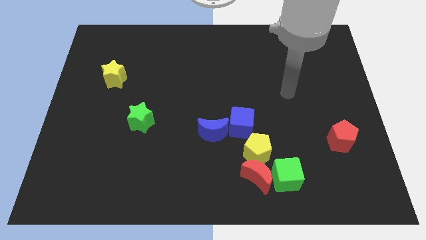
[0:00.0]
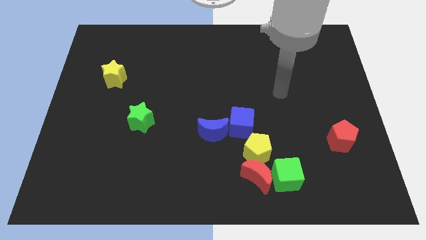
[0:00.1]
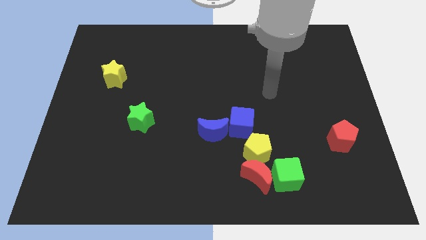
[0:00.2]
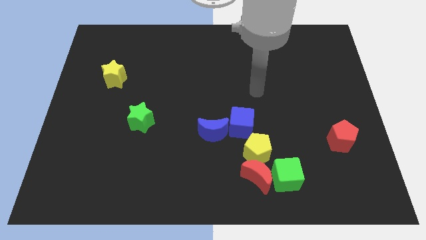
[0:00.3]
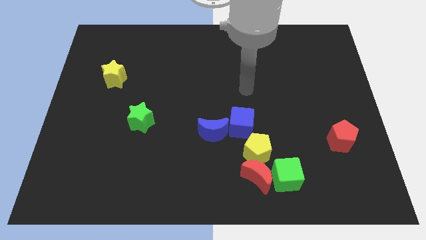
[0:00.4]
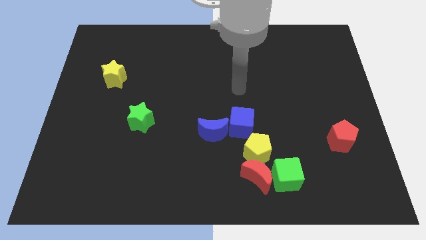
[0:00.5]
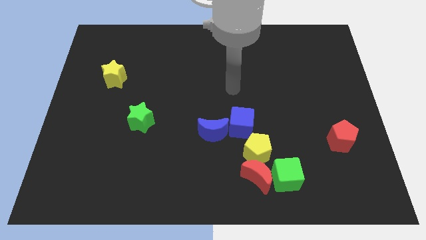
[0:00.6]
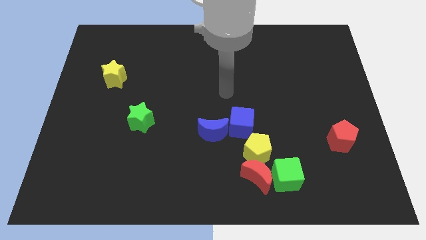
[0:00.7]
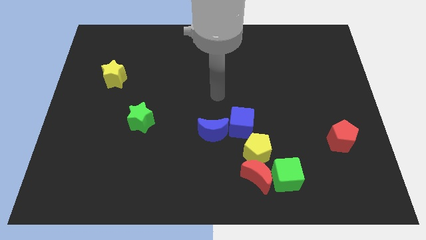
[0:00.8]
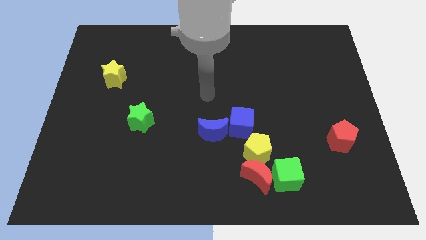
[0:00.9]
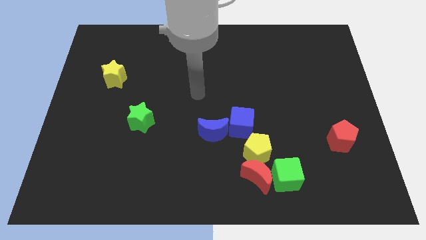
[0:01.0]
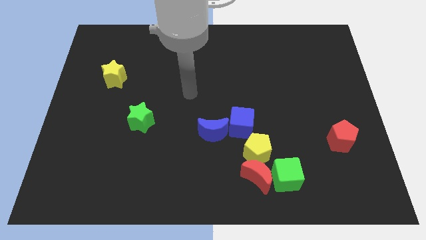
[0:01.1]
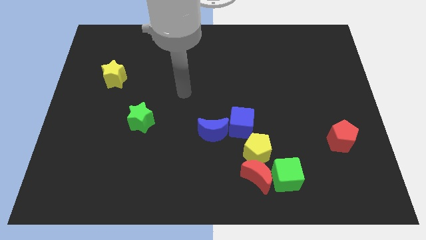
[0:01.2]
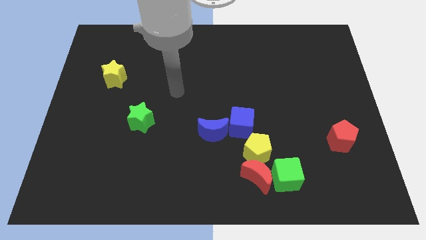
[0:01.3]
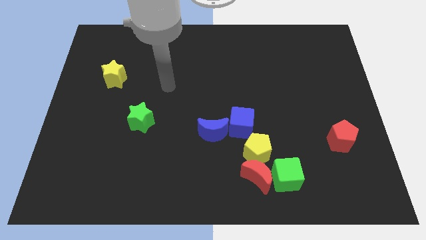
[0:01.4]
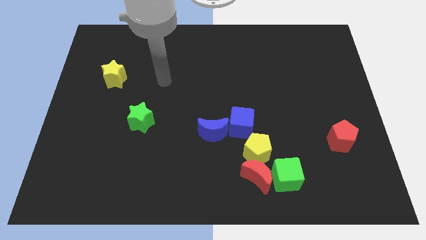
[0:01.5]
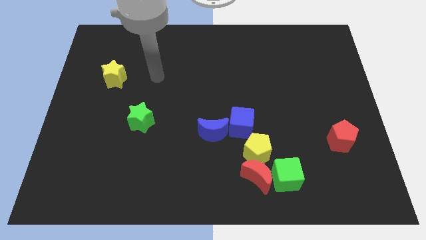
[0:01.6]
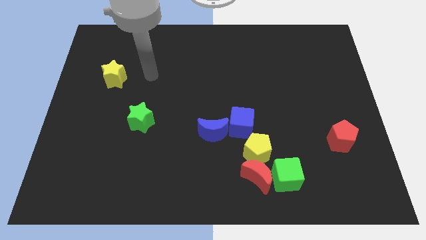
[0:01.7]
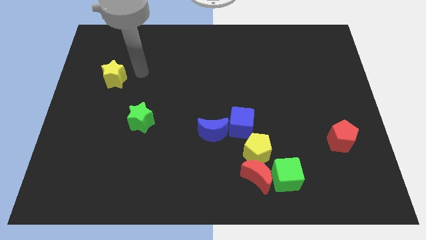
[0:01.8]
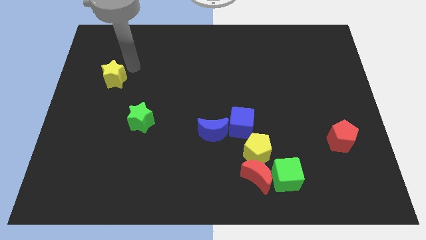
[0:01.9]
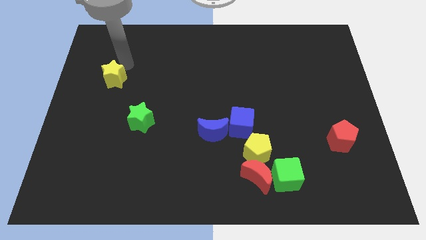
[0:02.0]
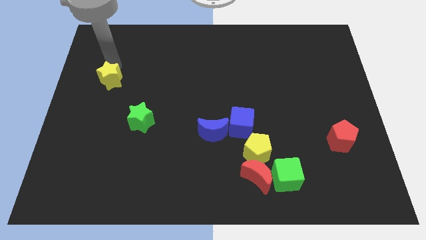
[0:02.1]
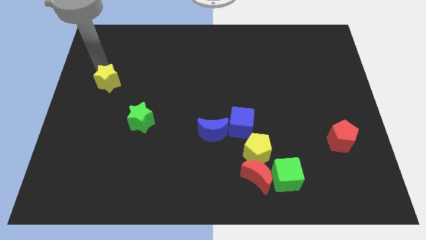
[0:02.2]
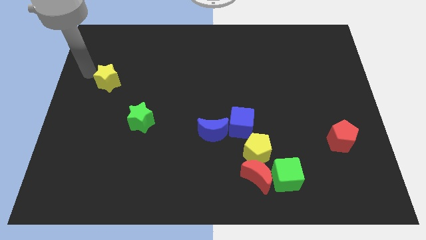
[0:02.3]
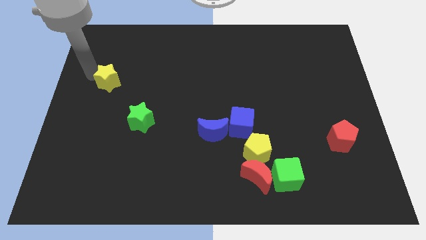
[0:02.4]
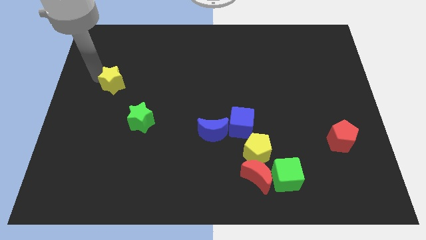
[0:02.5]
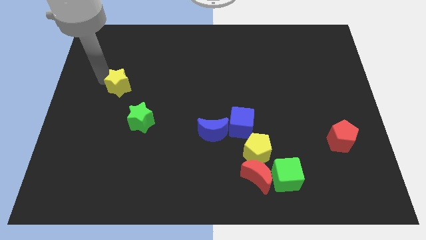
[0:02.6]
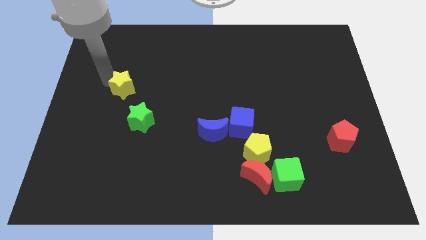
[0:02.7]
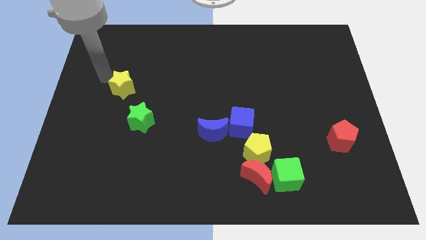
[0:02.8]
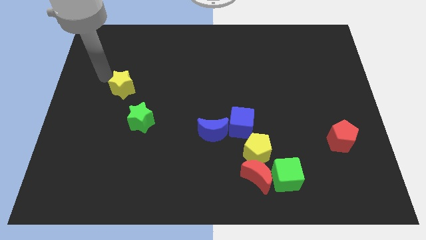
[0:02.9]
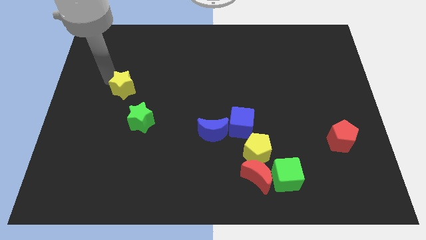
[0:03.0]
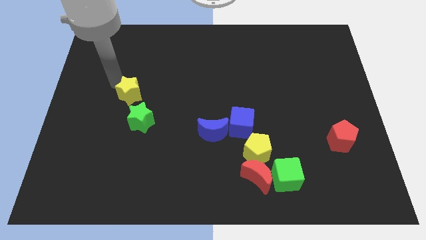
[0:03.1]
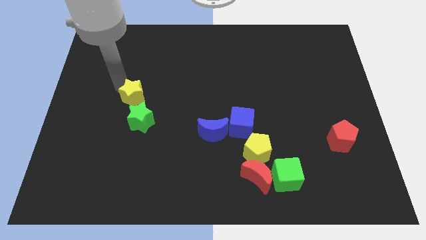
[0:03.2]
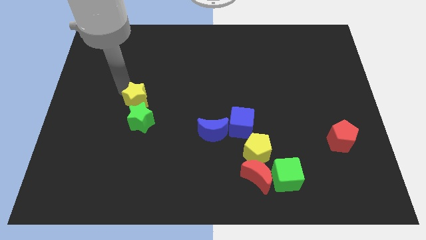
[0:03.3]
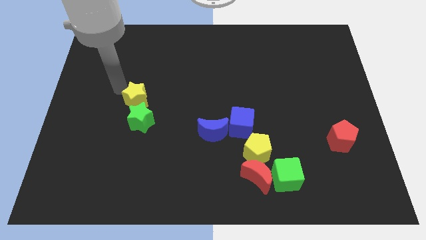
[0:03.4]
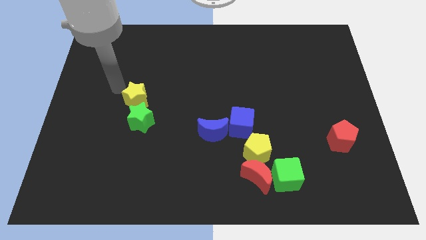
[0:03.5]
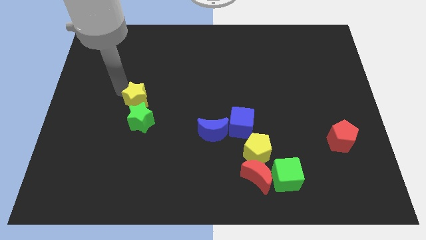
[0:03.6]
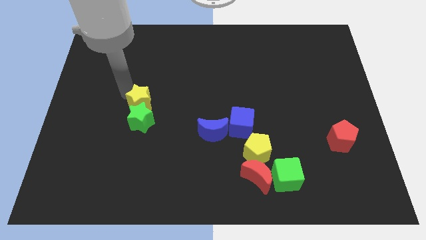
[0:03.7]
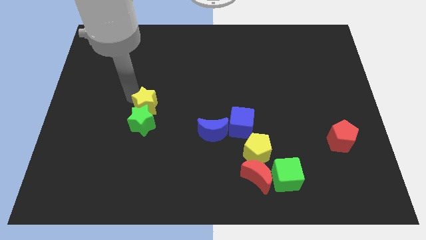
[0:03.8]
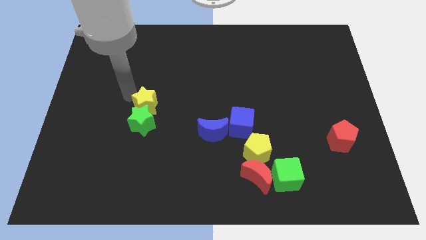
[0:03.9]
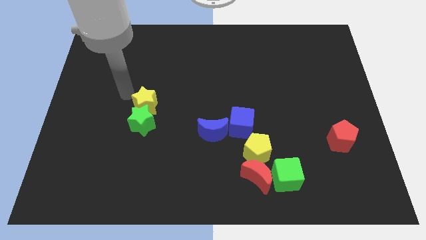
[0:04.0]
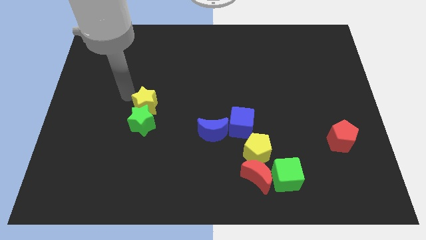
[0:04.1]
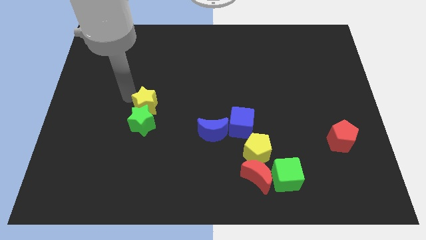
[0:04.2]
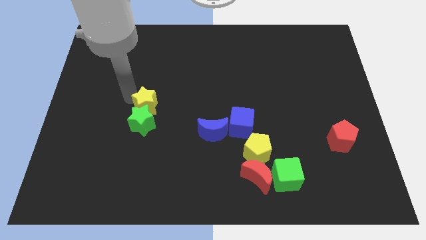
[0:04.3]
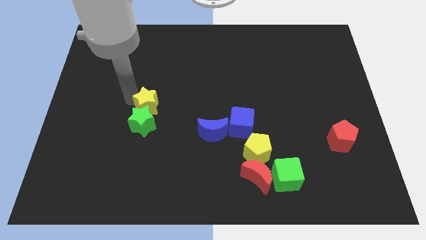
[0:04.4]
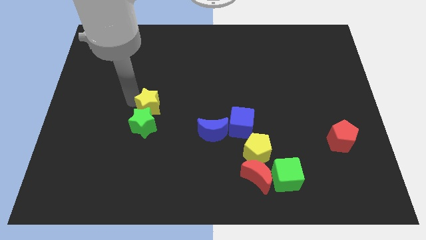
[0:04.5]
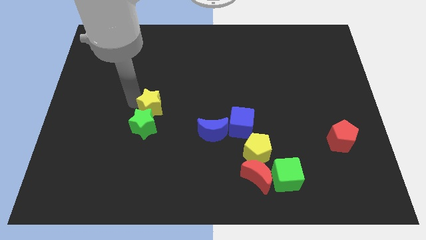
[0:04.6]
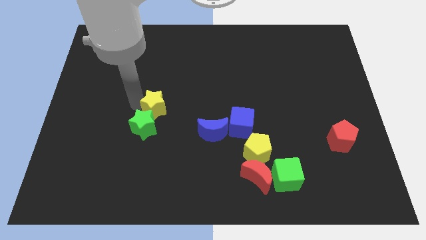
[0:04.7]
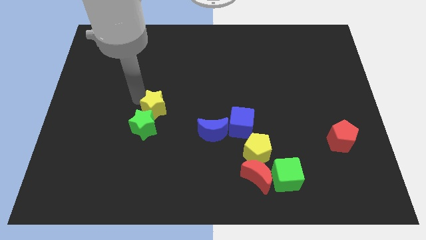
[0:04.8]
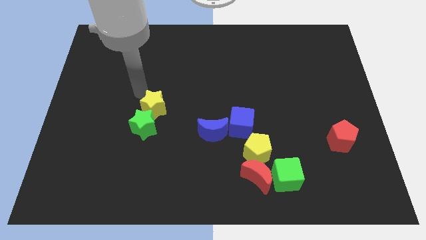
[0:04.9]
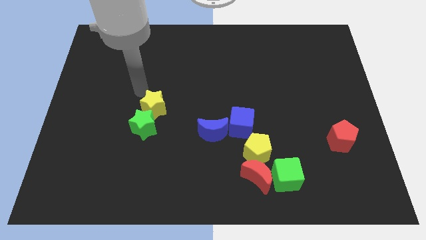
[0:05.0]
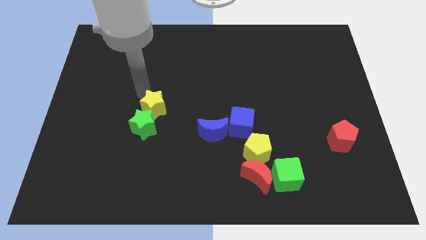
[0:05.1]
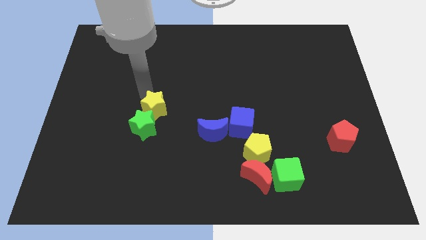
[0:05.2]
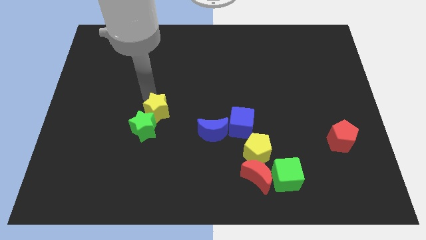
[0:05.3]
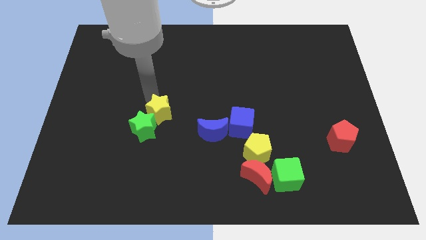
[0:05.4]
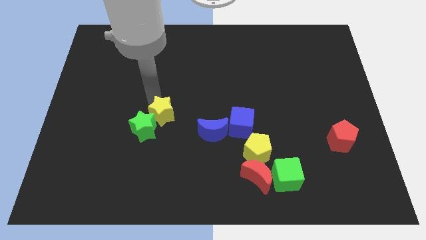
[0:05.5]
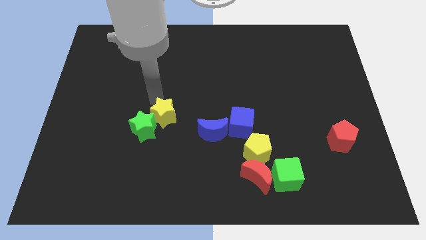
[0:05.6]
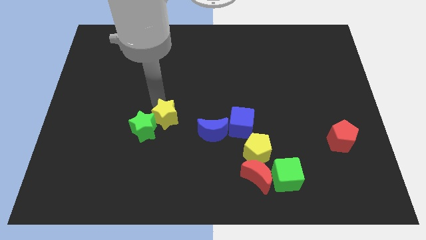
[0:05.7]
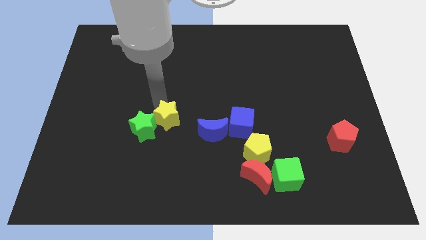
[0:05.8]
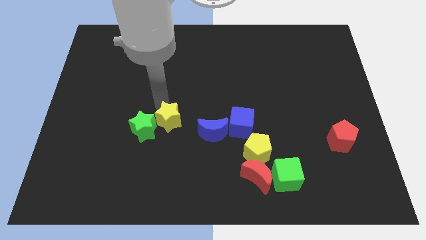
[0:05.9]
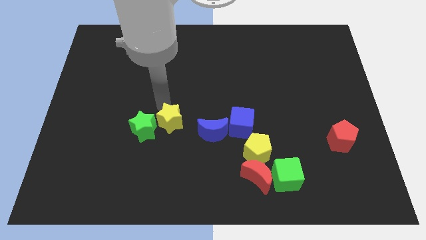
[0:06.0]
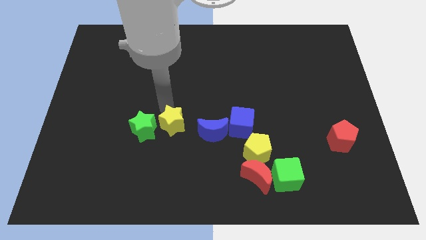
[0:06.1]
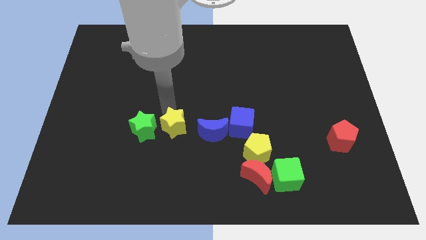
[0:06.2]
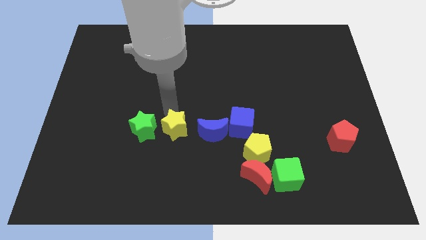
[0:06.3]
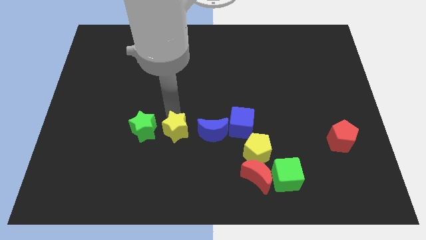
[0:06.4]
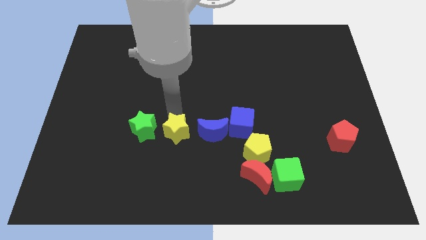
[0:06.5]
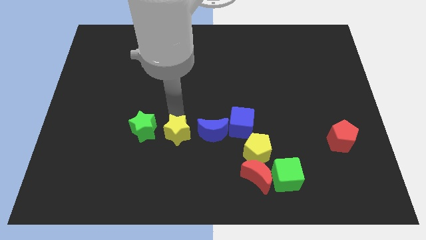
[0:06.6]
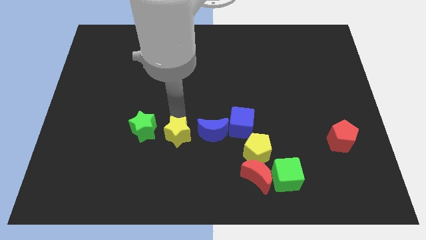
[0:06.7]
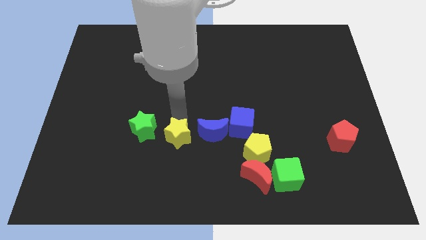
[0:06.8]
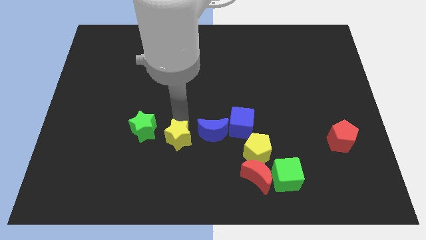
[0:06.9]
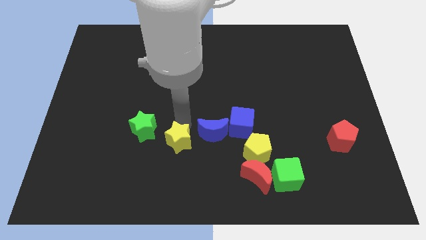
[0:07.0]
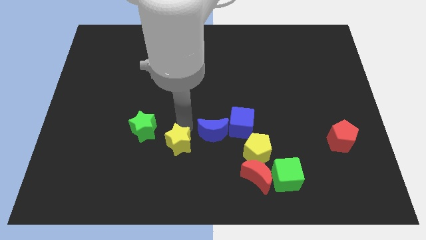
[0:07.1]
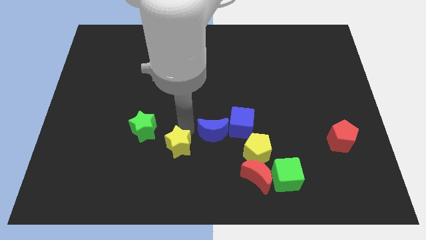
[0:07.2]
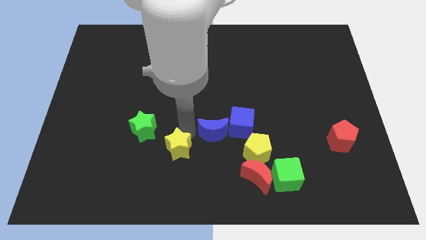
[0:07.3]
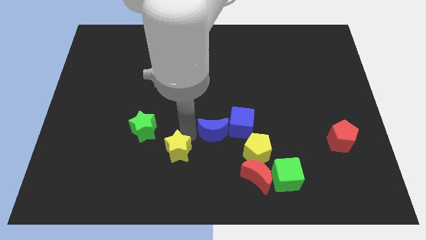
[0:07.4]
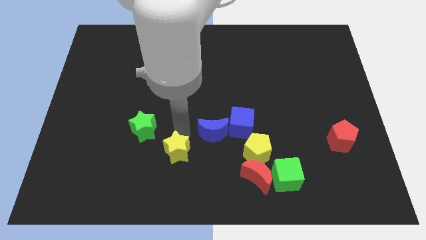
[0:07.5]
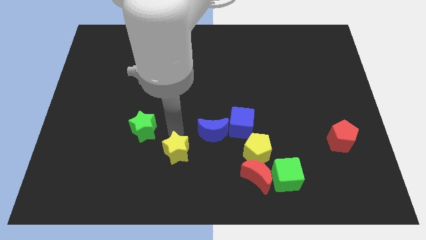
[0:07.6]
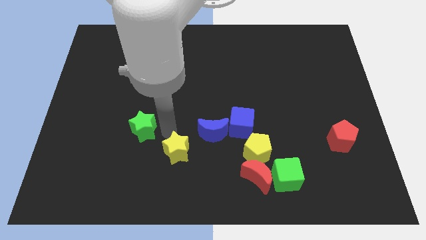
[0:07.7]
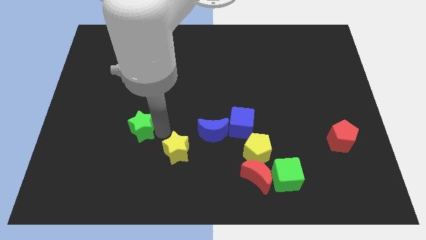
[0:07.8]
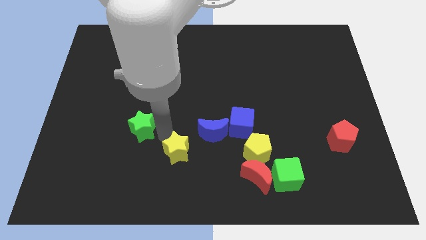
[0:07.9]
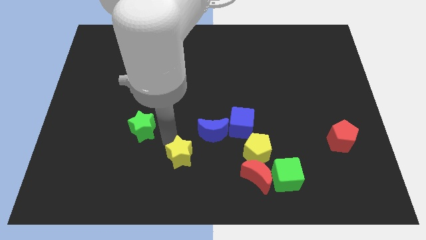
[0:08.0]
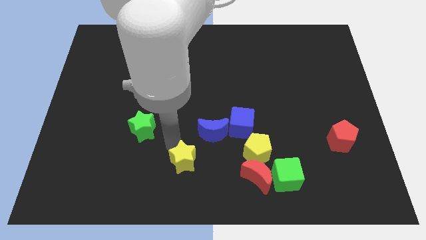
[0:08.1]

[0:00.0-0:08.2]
put the yellow star to the bottom
